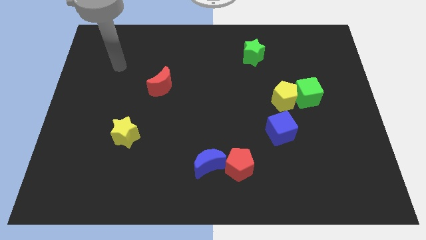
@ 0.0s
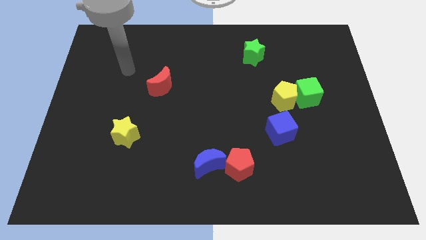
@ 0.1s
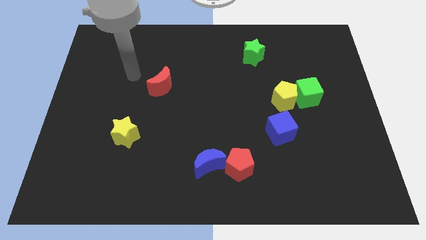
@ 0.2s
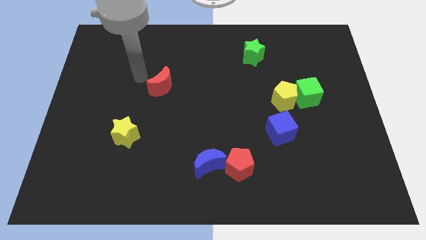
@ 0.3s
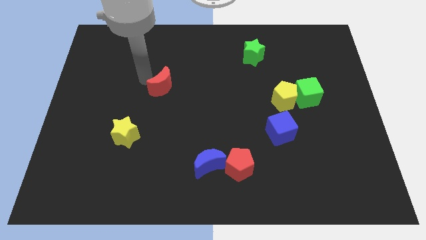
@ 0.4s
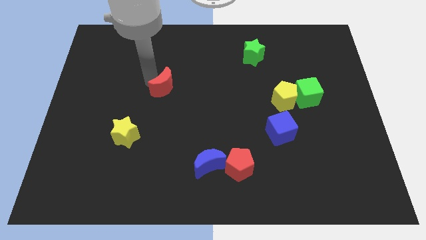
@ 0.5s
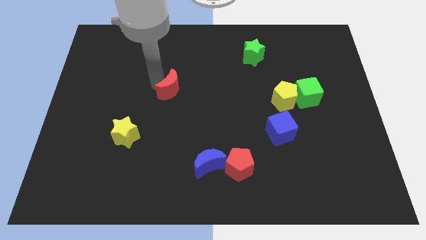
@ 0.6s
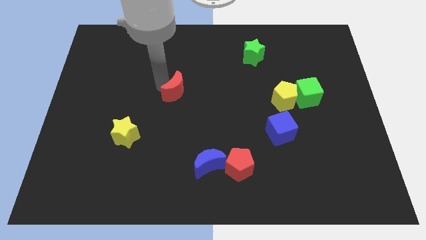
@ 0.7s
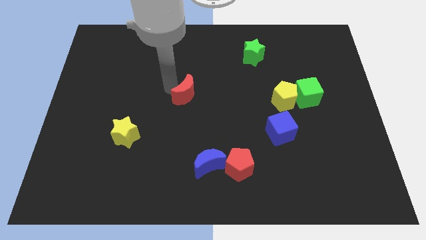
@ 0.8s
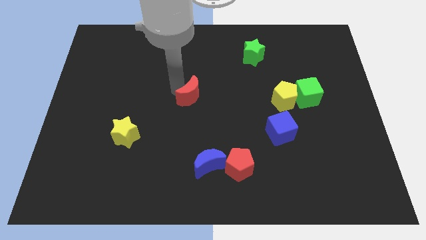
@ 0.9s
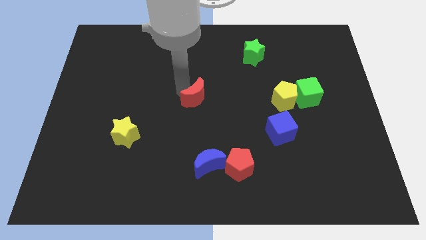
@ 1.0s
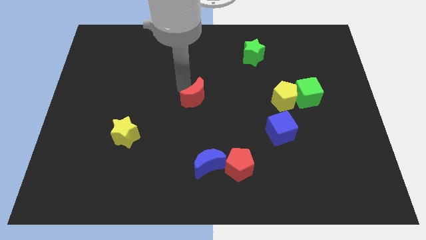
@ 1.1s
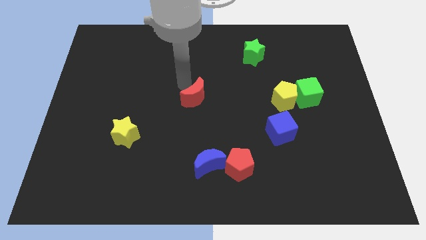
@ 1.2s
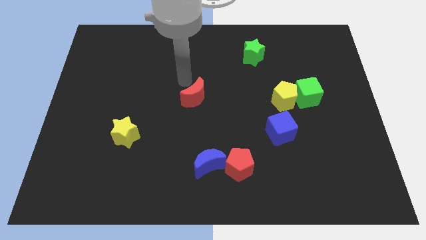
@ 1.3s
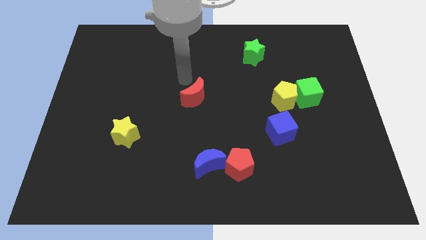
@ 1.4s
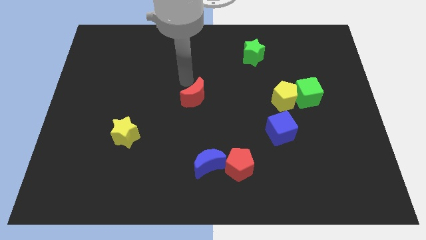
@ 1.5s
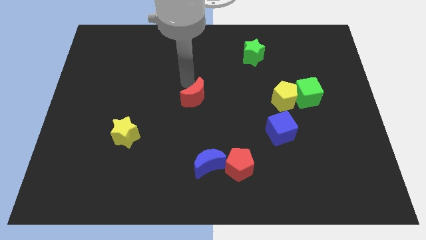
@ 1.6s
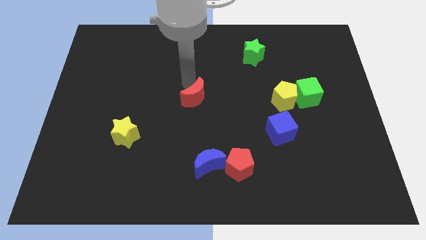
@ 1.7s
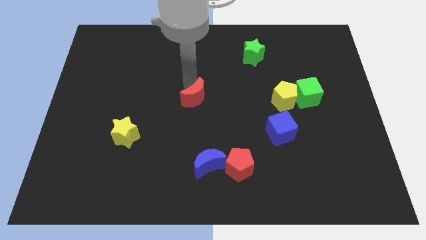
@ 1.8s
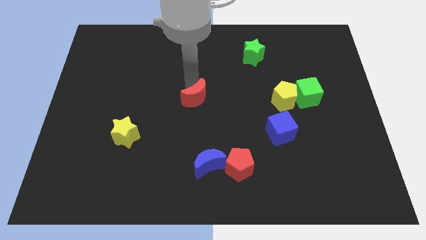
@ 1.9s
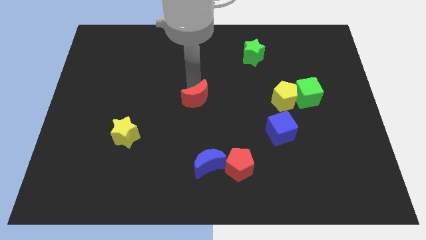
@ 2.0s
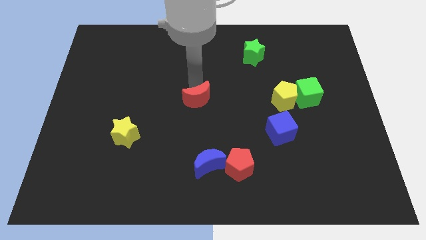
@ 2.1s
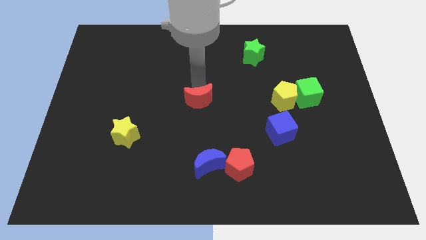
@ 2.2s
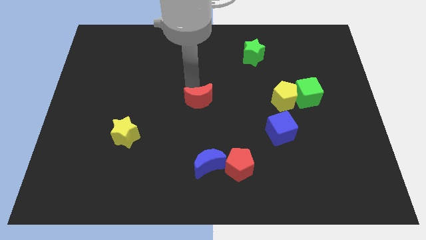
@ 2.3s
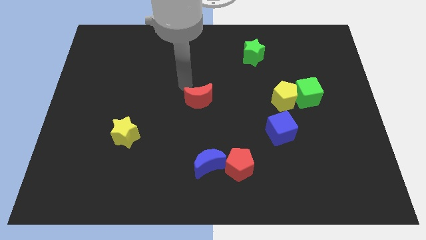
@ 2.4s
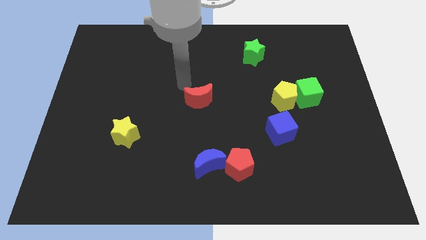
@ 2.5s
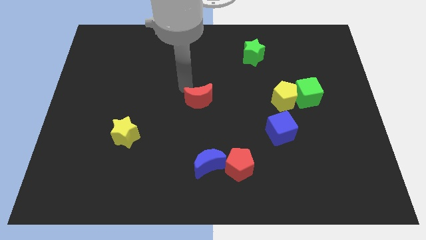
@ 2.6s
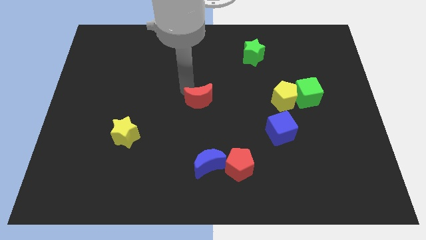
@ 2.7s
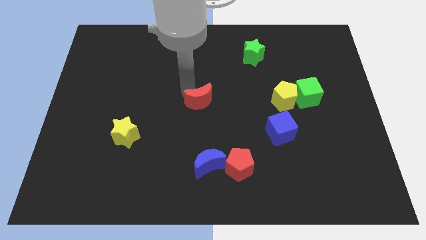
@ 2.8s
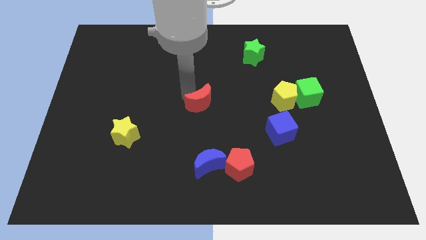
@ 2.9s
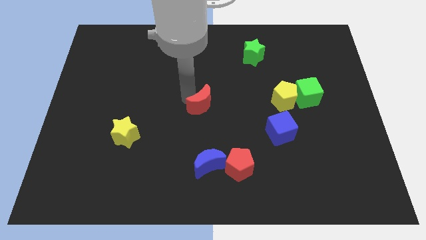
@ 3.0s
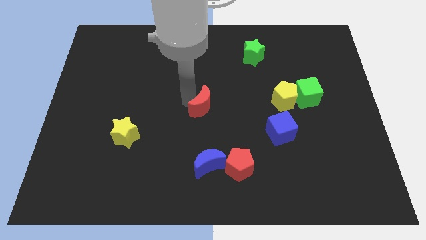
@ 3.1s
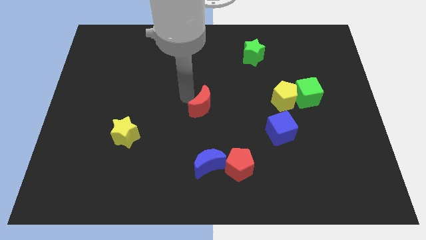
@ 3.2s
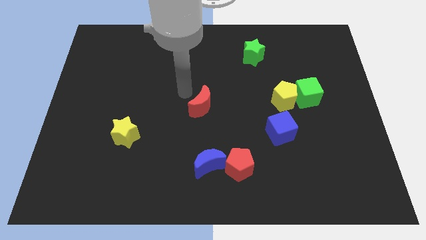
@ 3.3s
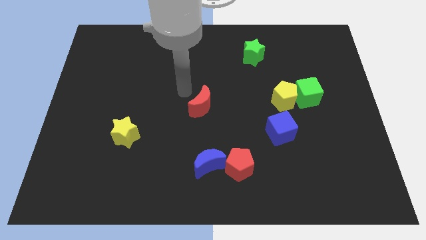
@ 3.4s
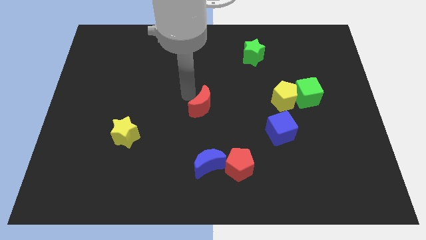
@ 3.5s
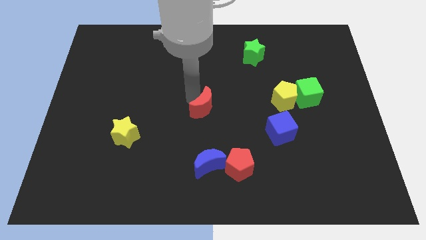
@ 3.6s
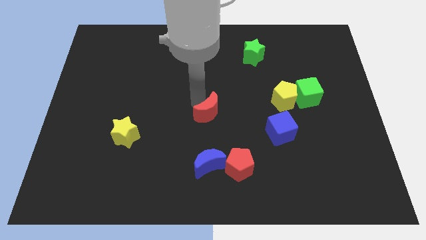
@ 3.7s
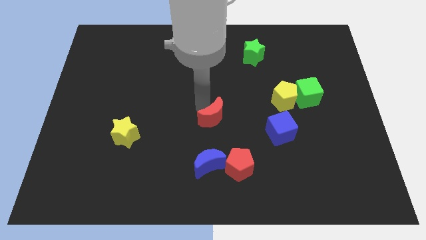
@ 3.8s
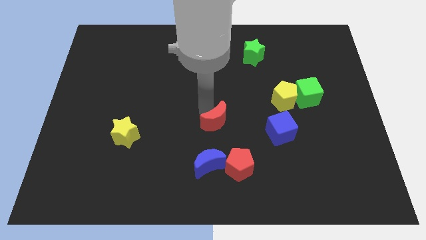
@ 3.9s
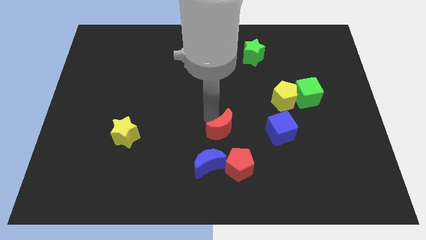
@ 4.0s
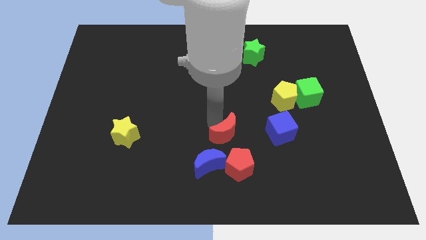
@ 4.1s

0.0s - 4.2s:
push the red moon down and to the right diagonally

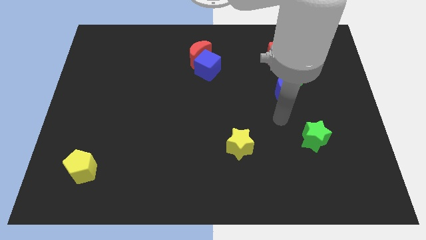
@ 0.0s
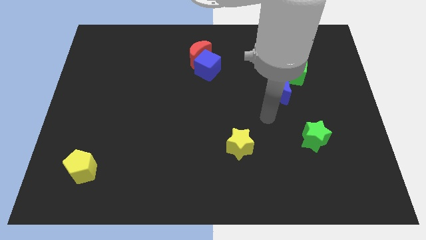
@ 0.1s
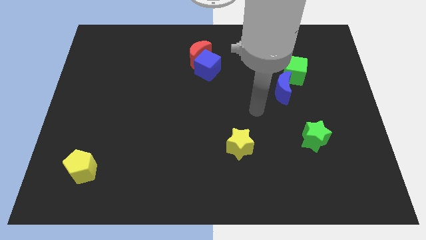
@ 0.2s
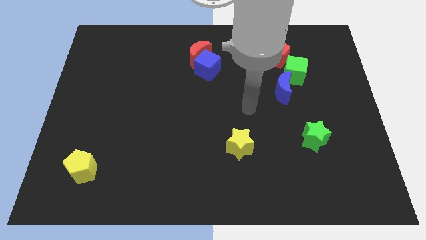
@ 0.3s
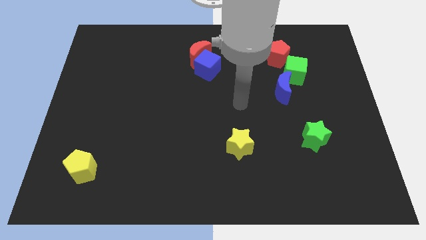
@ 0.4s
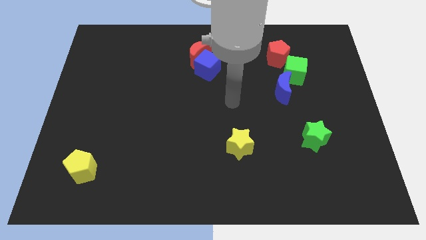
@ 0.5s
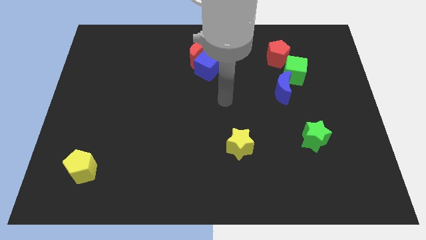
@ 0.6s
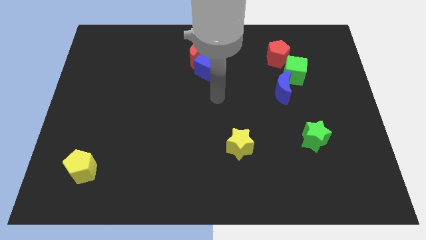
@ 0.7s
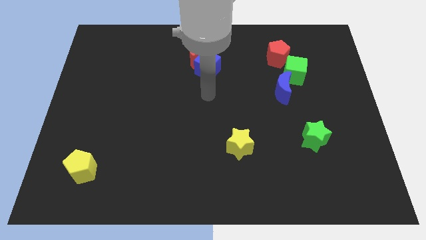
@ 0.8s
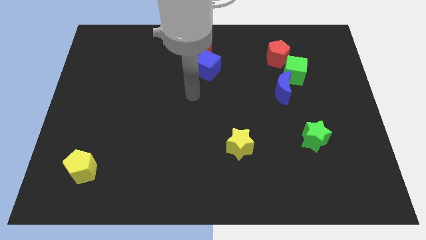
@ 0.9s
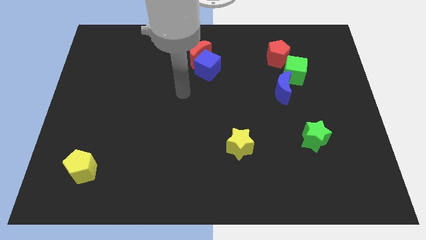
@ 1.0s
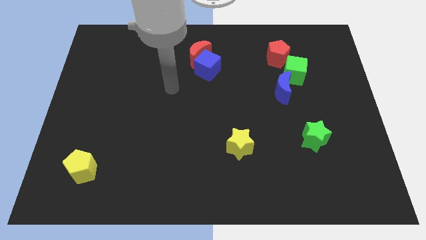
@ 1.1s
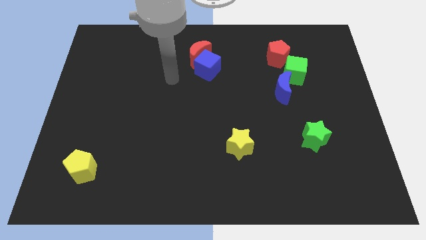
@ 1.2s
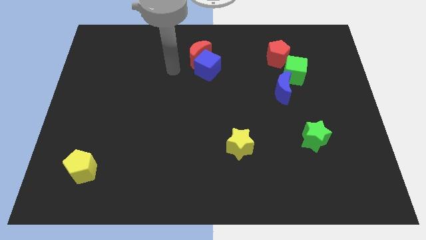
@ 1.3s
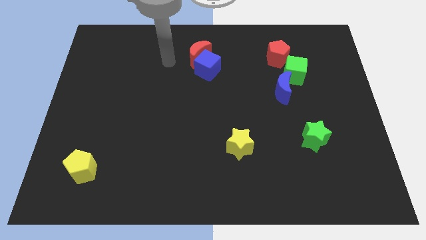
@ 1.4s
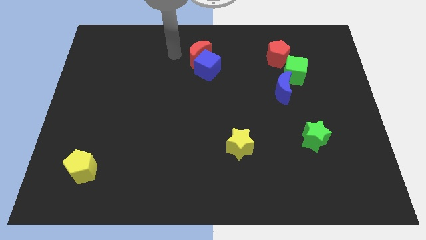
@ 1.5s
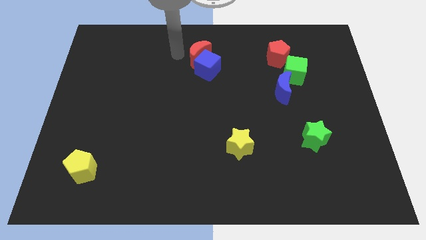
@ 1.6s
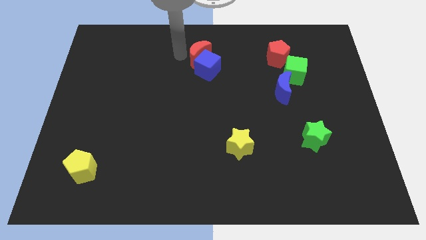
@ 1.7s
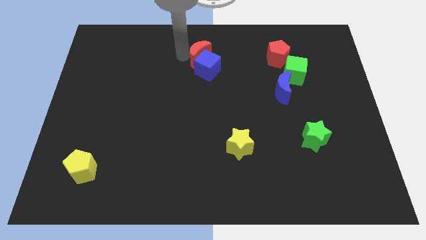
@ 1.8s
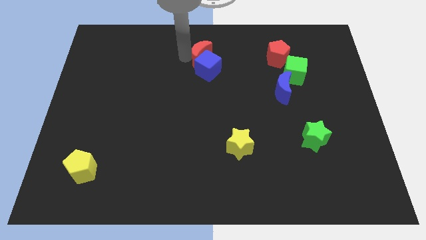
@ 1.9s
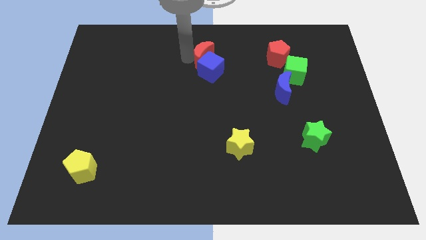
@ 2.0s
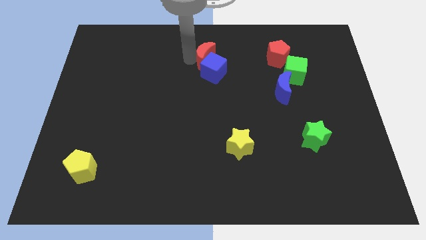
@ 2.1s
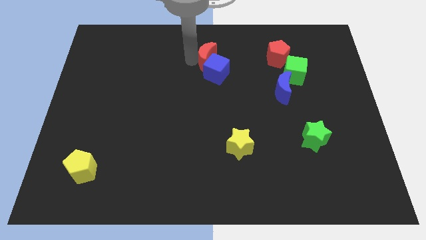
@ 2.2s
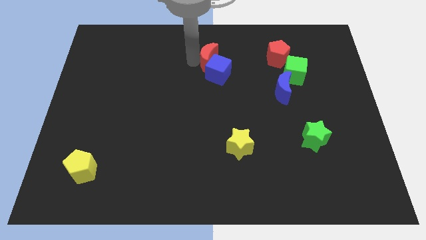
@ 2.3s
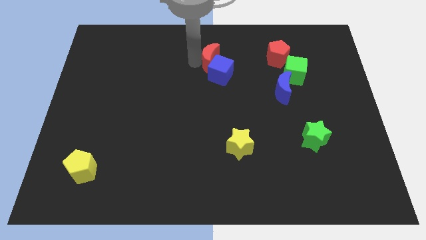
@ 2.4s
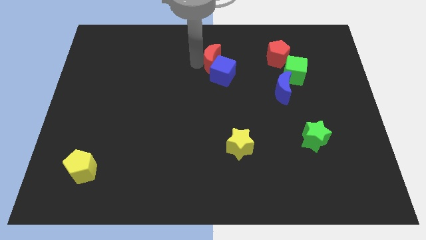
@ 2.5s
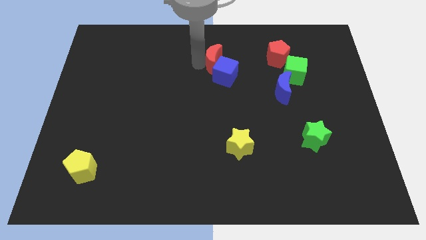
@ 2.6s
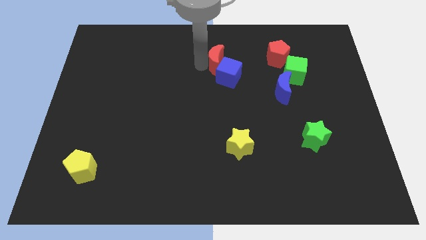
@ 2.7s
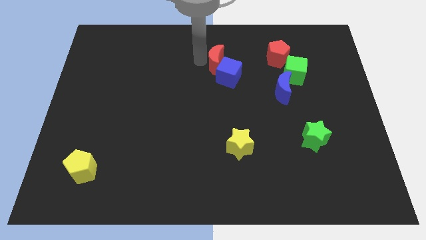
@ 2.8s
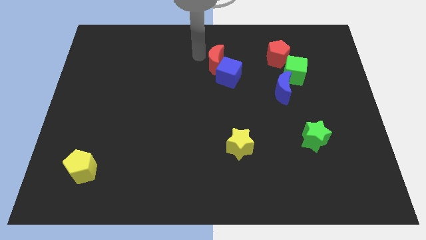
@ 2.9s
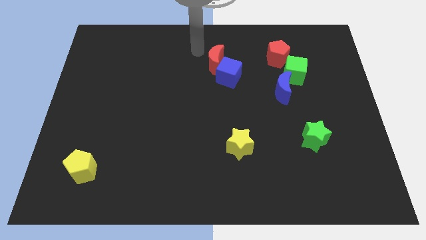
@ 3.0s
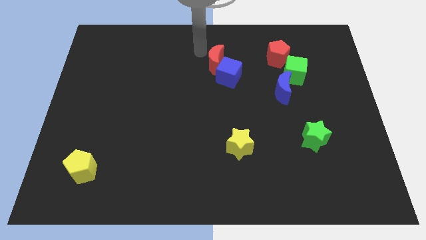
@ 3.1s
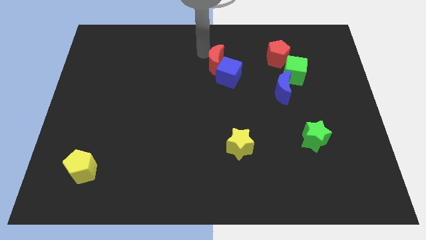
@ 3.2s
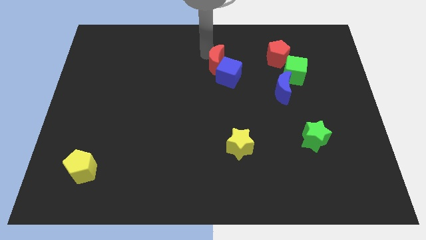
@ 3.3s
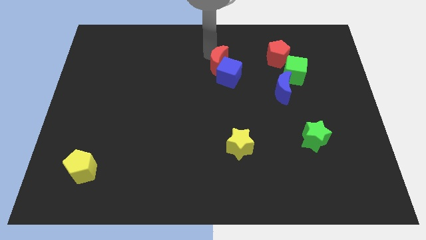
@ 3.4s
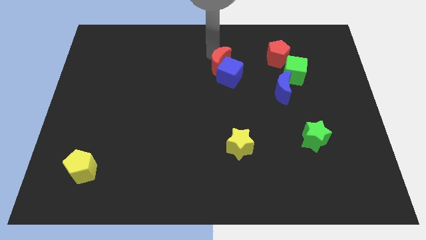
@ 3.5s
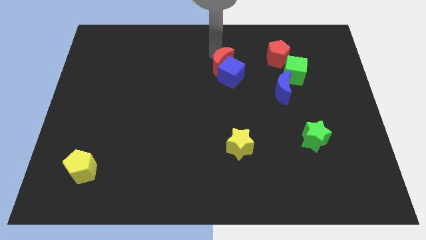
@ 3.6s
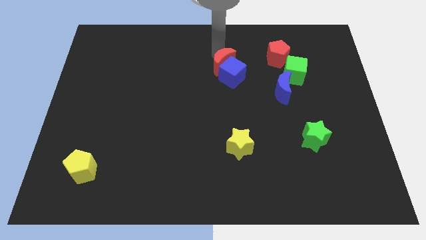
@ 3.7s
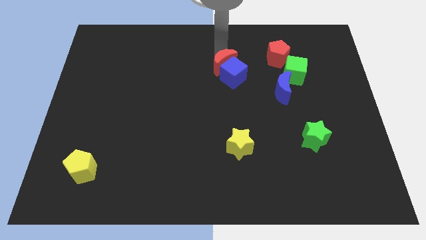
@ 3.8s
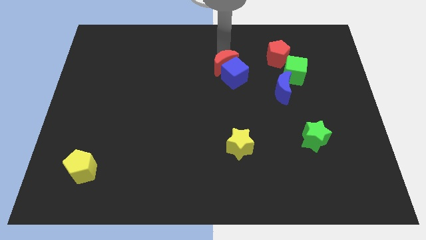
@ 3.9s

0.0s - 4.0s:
slightly move the red moon down and right

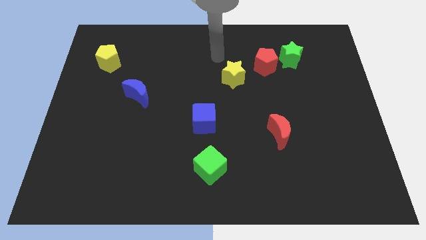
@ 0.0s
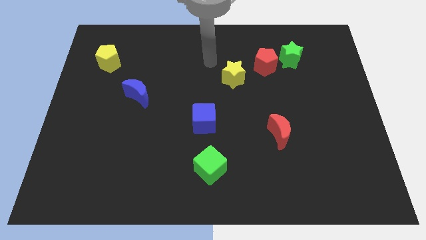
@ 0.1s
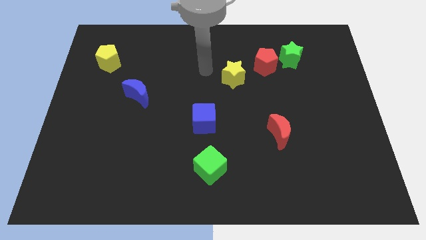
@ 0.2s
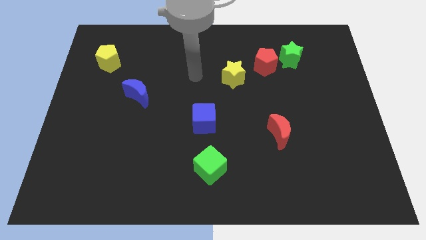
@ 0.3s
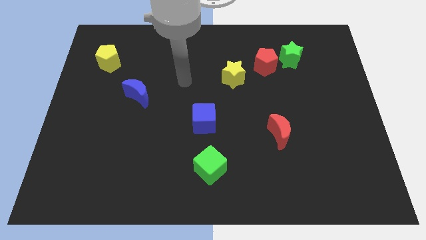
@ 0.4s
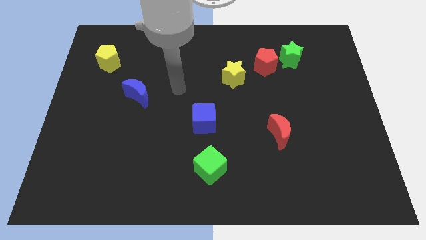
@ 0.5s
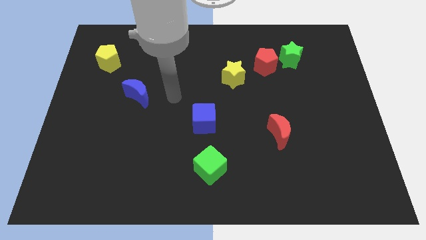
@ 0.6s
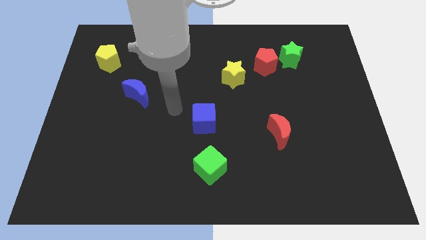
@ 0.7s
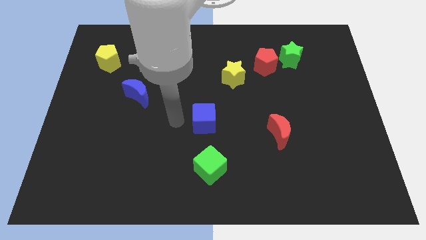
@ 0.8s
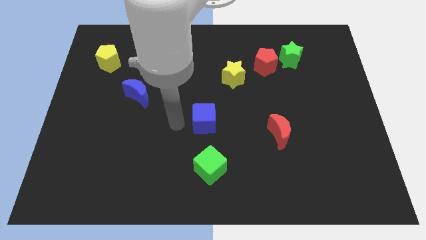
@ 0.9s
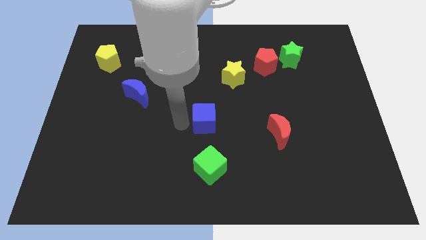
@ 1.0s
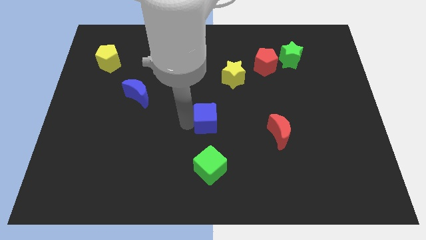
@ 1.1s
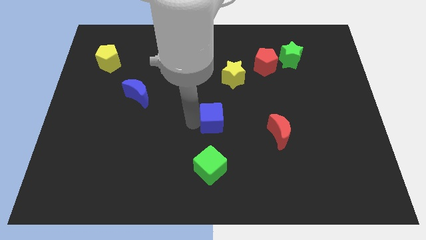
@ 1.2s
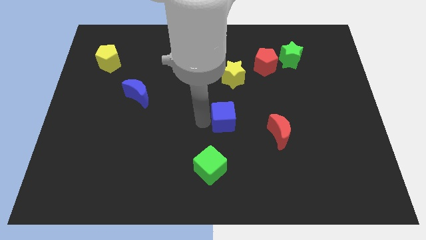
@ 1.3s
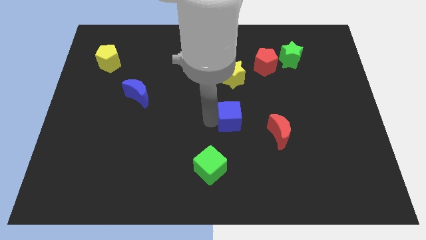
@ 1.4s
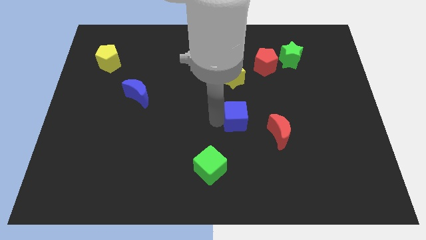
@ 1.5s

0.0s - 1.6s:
slightly move the blue cube to the right
